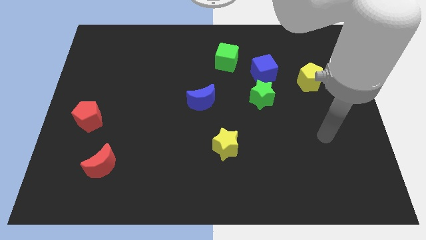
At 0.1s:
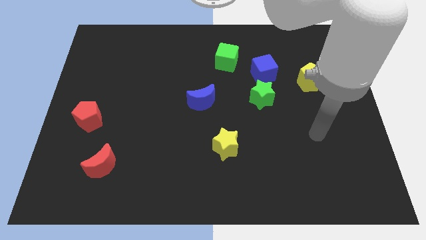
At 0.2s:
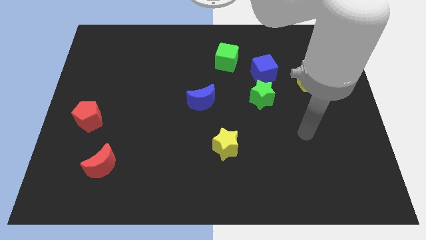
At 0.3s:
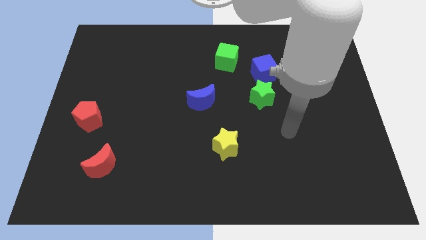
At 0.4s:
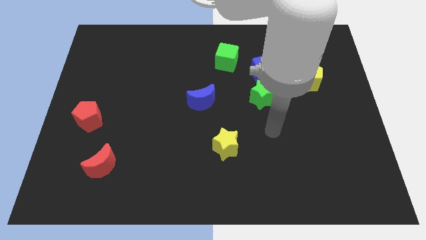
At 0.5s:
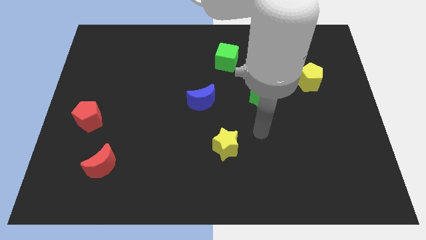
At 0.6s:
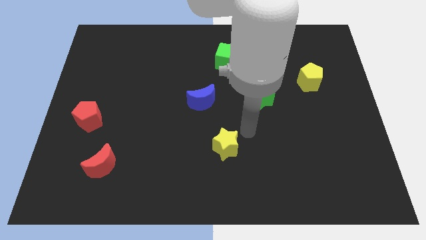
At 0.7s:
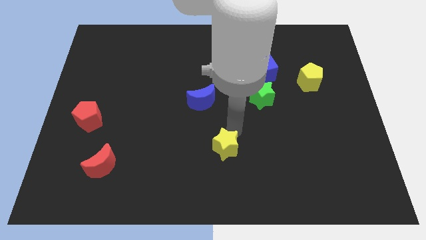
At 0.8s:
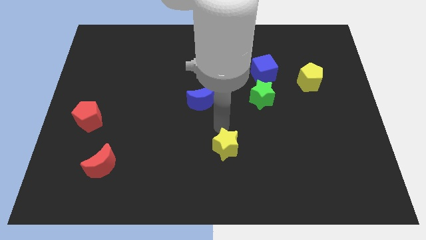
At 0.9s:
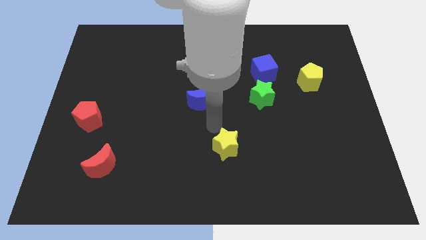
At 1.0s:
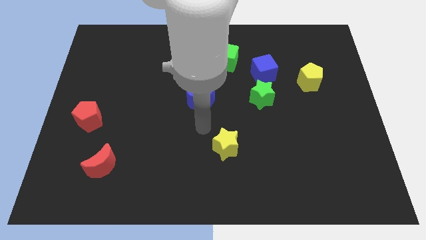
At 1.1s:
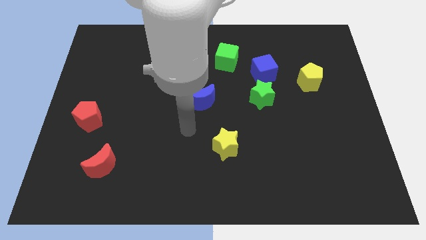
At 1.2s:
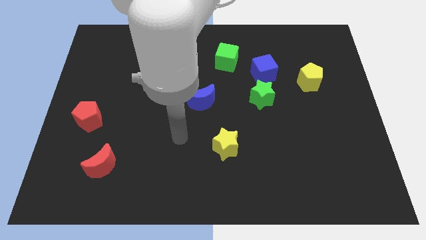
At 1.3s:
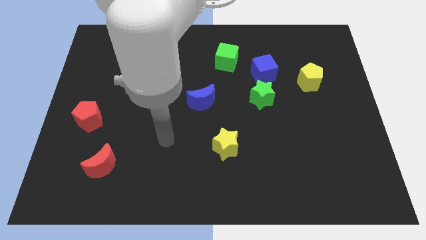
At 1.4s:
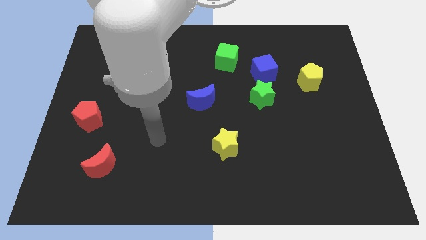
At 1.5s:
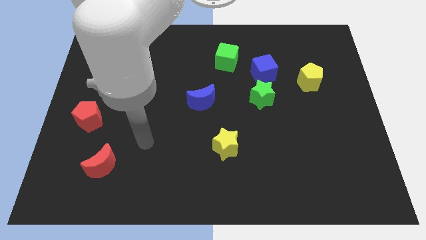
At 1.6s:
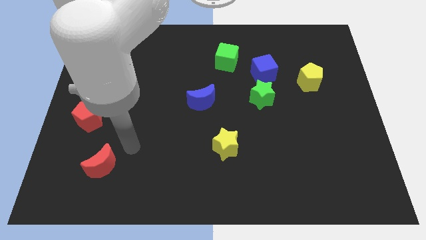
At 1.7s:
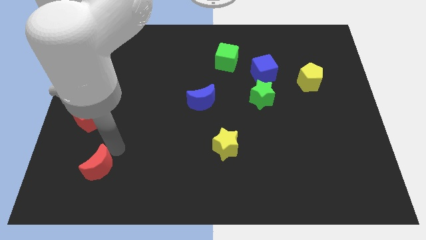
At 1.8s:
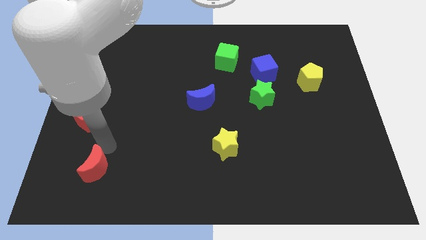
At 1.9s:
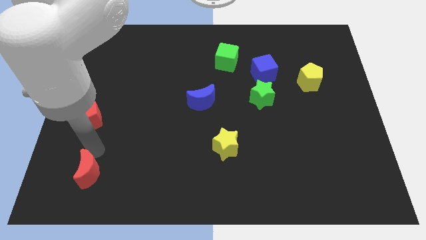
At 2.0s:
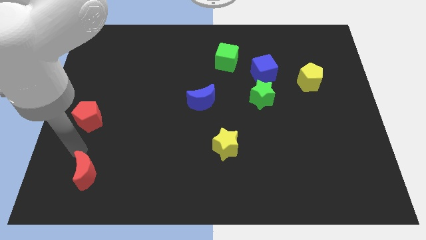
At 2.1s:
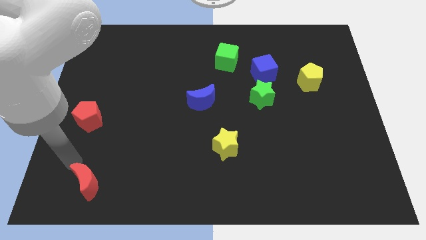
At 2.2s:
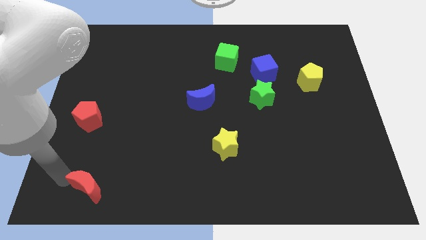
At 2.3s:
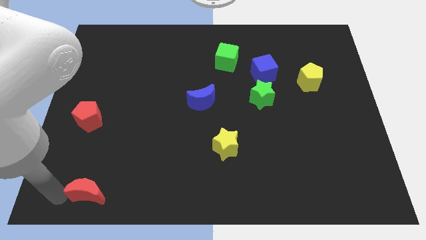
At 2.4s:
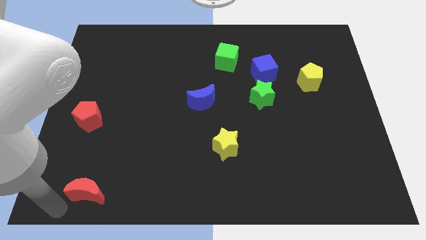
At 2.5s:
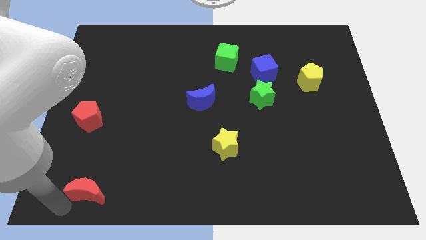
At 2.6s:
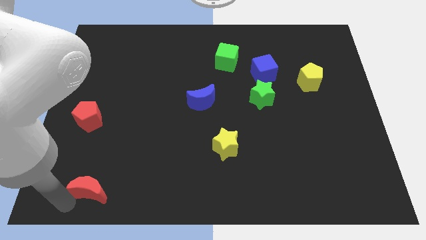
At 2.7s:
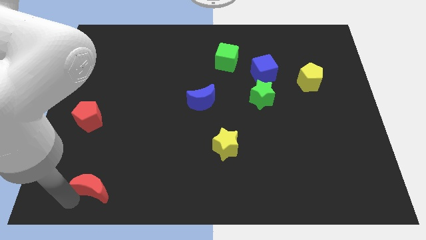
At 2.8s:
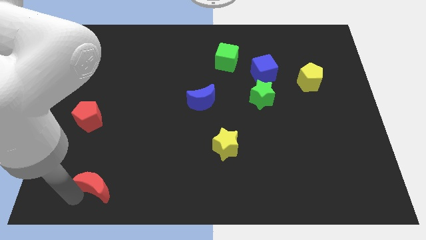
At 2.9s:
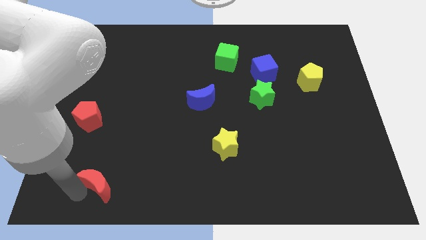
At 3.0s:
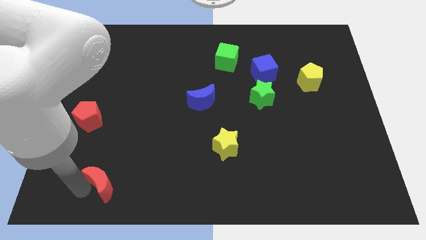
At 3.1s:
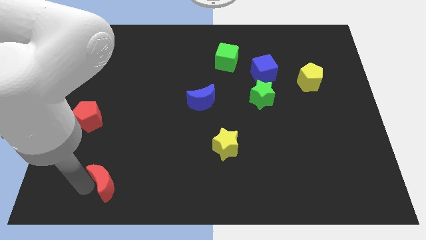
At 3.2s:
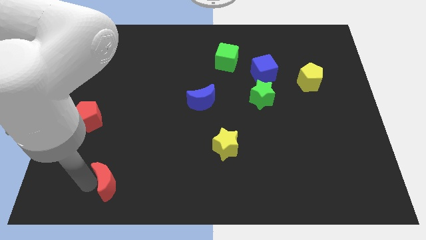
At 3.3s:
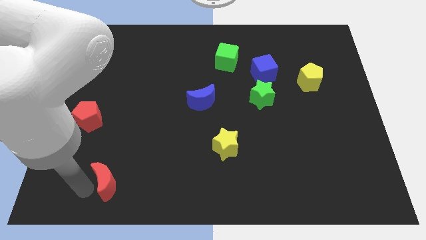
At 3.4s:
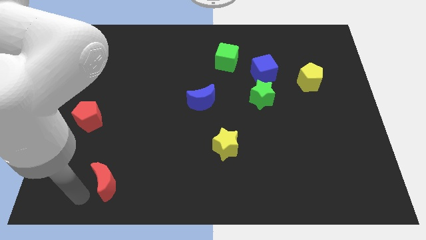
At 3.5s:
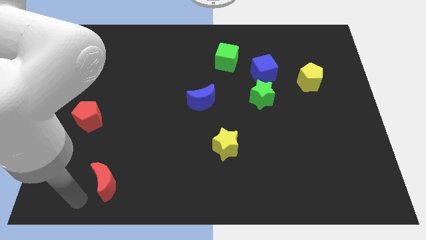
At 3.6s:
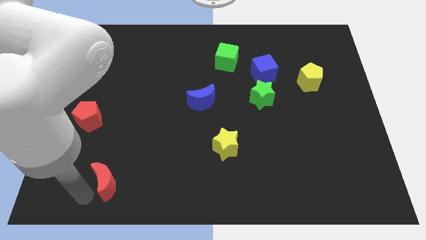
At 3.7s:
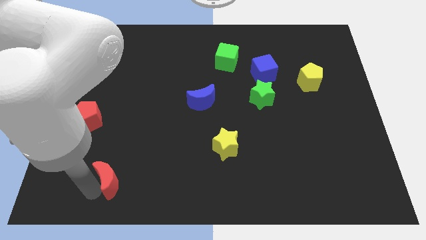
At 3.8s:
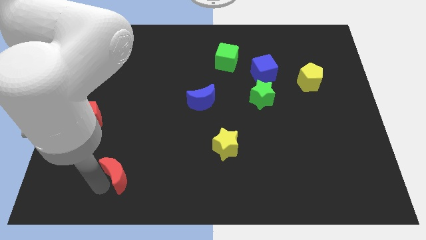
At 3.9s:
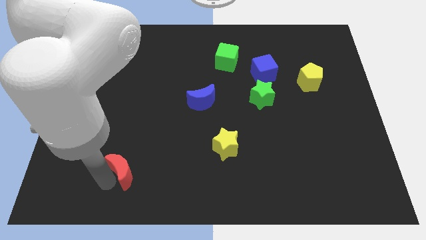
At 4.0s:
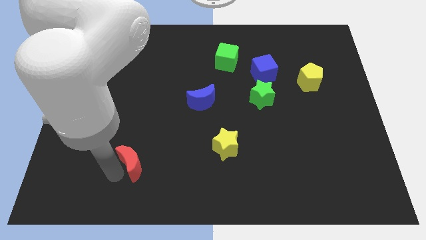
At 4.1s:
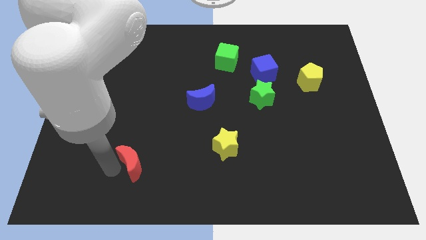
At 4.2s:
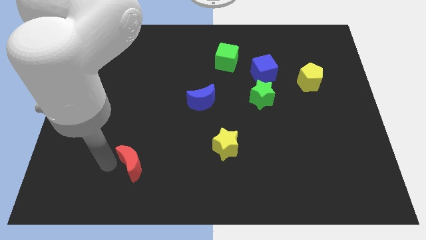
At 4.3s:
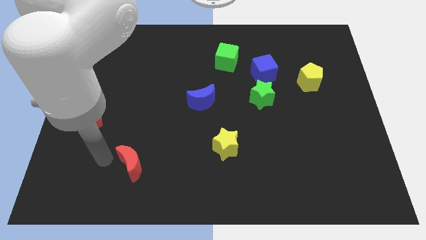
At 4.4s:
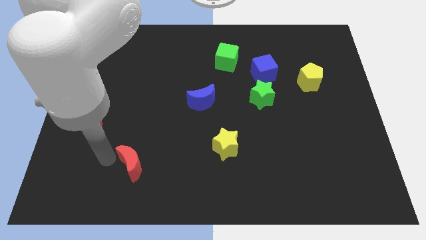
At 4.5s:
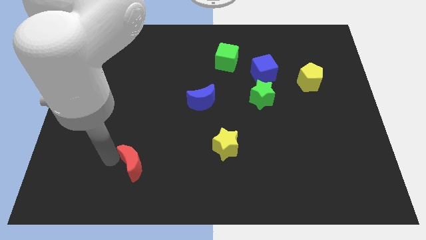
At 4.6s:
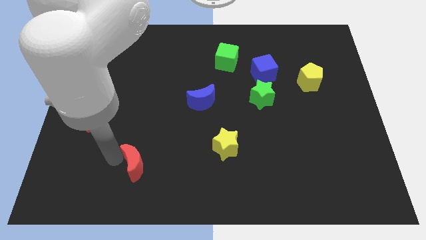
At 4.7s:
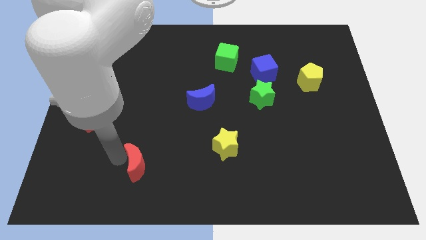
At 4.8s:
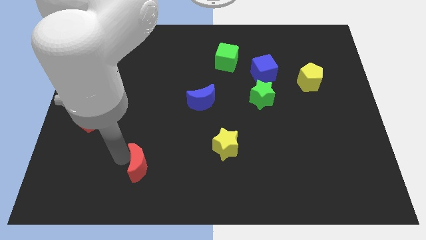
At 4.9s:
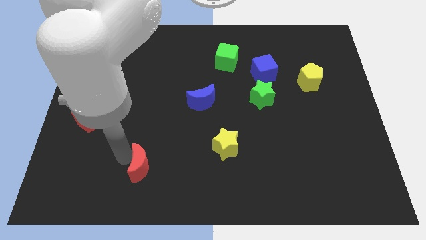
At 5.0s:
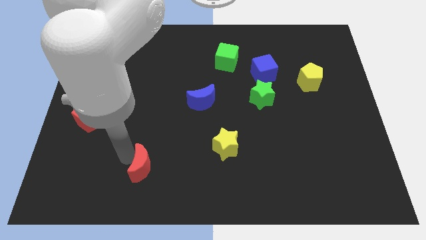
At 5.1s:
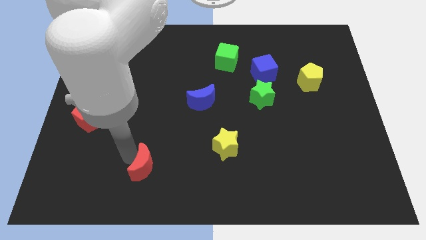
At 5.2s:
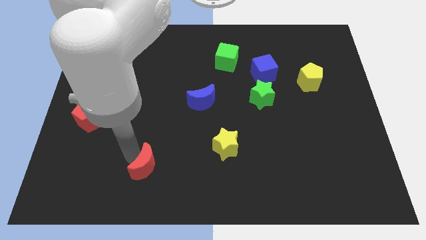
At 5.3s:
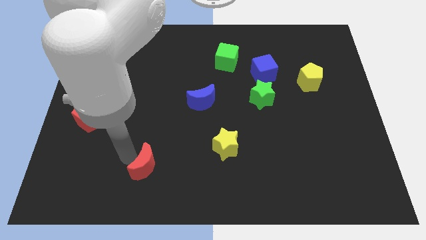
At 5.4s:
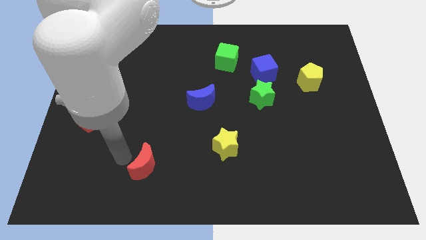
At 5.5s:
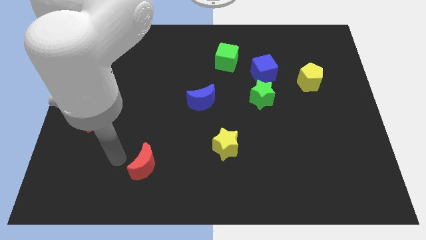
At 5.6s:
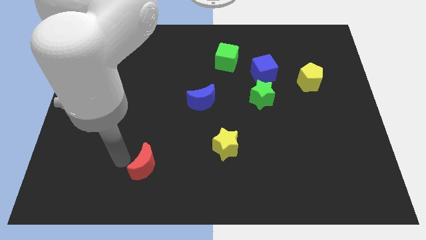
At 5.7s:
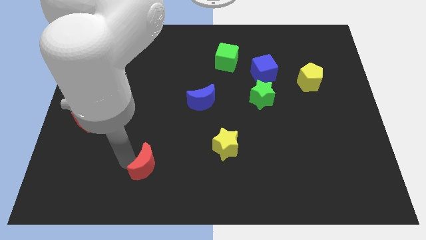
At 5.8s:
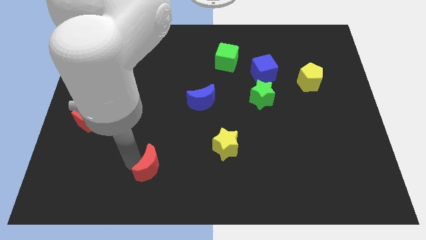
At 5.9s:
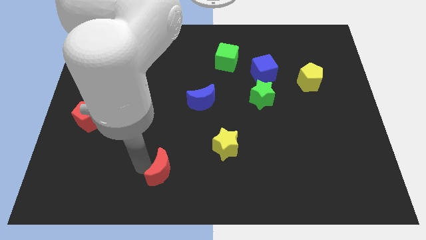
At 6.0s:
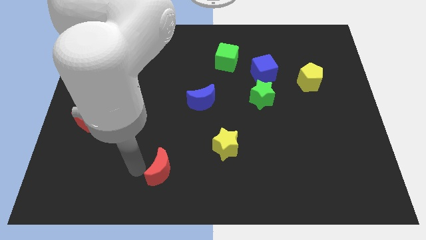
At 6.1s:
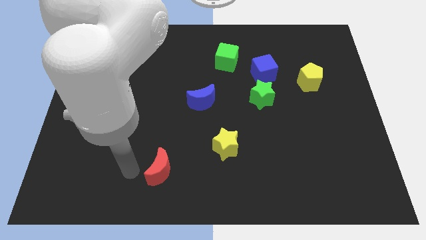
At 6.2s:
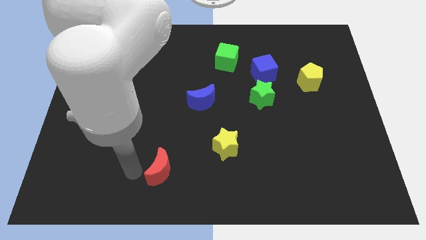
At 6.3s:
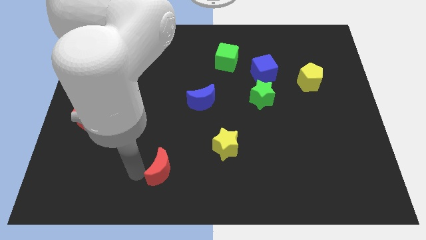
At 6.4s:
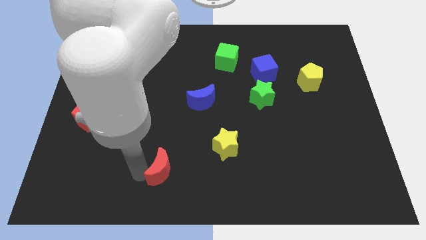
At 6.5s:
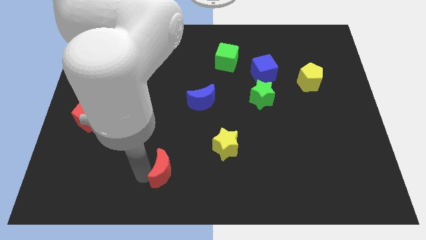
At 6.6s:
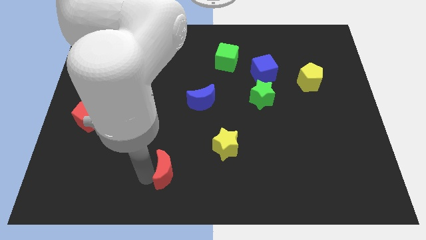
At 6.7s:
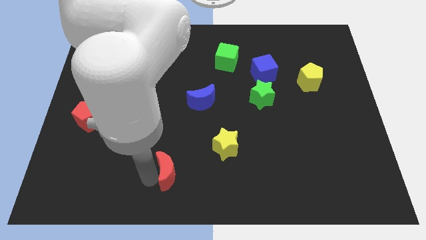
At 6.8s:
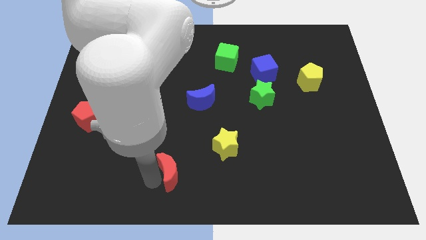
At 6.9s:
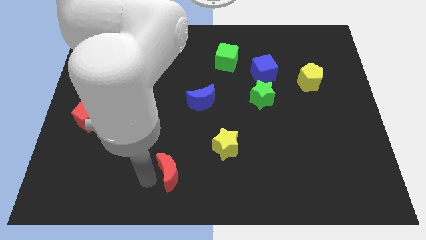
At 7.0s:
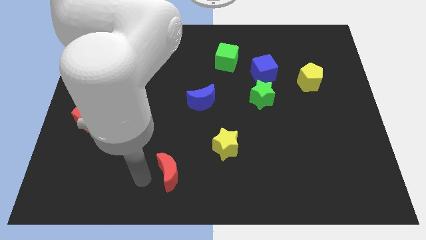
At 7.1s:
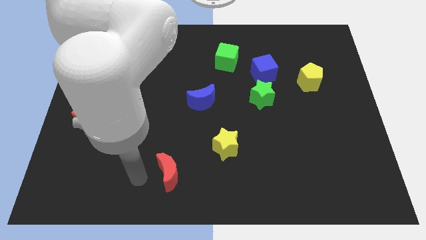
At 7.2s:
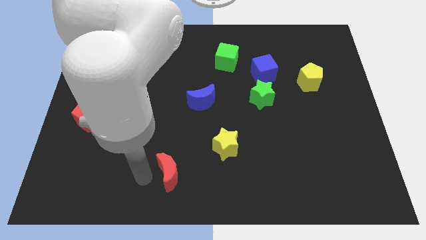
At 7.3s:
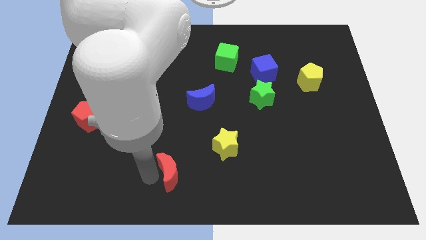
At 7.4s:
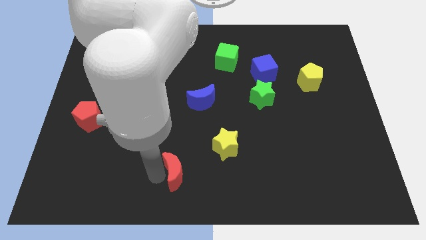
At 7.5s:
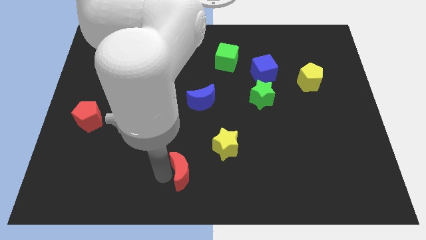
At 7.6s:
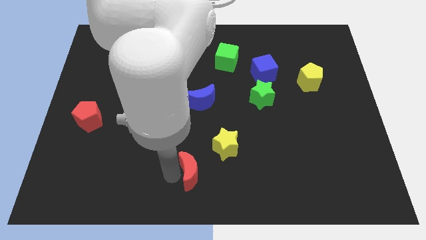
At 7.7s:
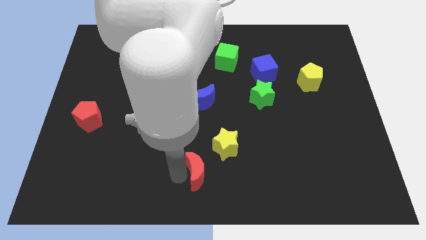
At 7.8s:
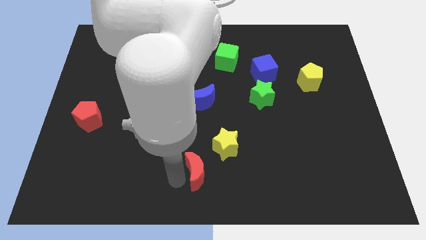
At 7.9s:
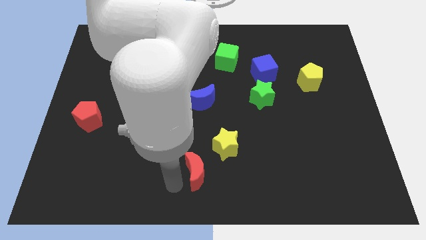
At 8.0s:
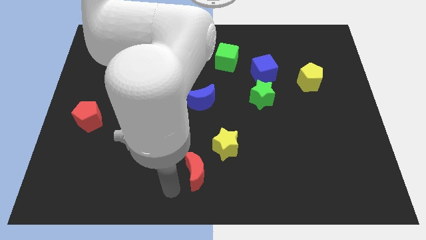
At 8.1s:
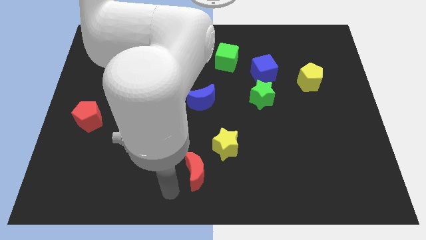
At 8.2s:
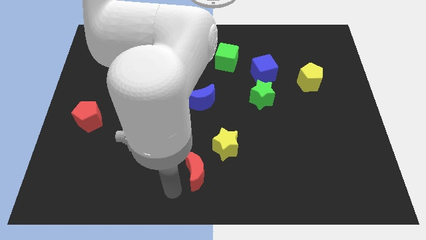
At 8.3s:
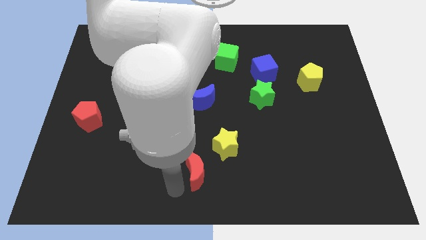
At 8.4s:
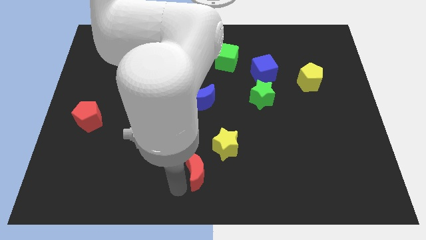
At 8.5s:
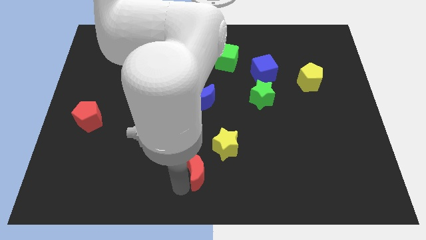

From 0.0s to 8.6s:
push the red moon to the right
